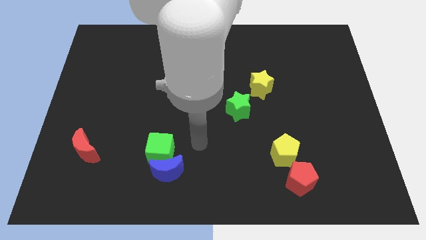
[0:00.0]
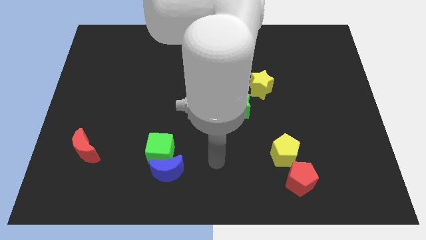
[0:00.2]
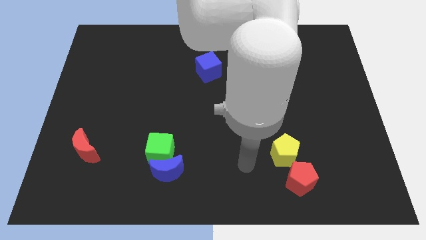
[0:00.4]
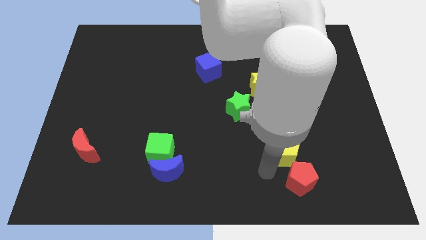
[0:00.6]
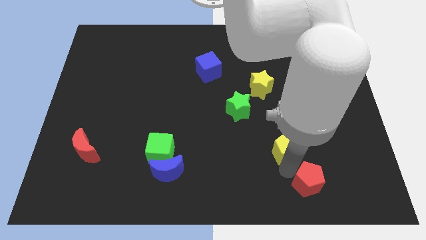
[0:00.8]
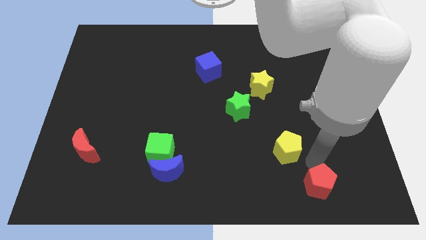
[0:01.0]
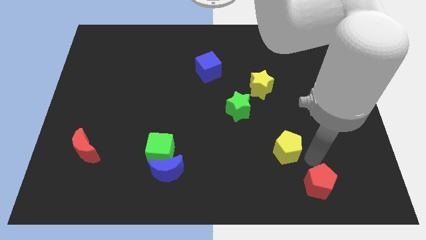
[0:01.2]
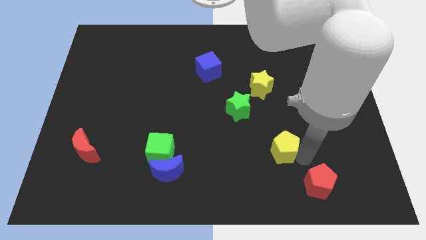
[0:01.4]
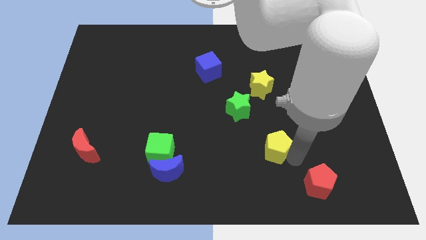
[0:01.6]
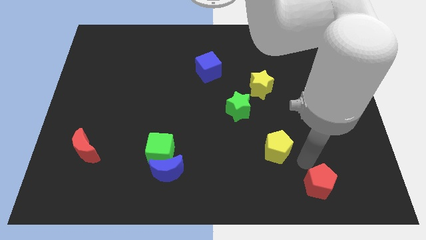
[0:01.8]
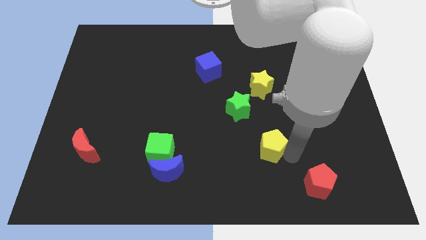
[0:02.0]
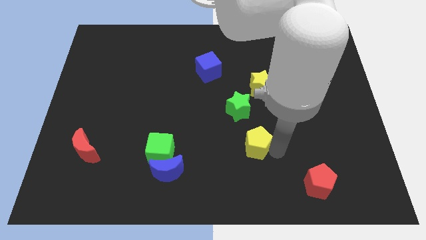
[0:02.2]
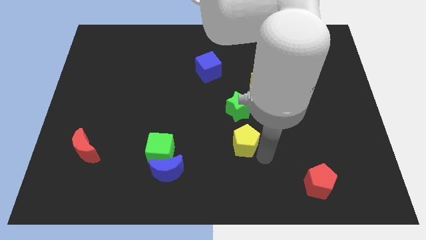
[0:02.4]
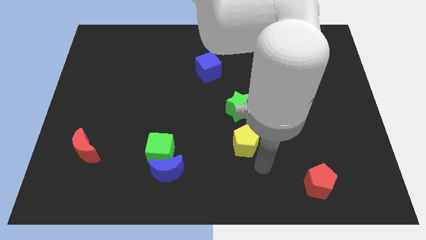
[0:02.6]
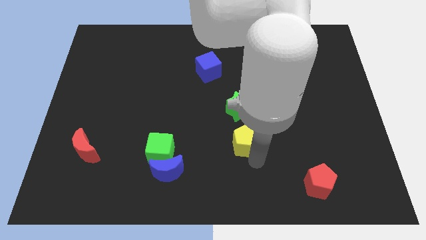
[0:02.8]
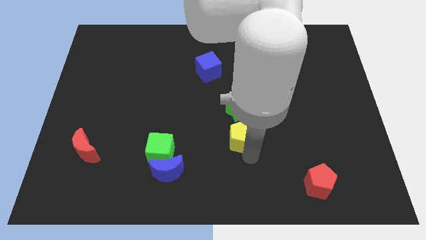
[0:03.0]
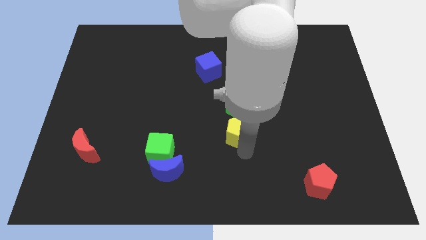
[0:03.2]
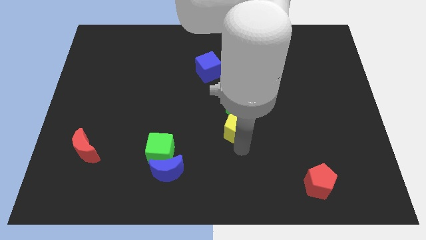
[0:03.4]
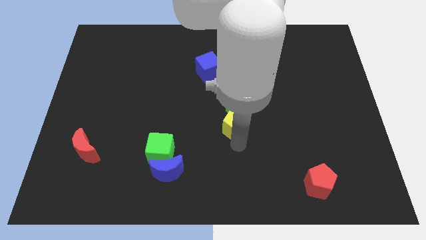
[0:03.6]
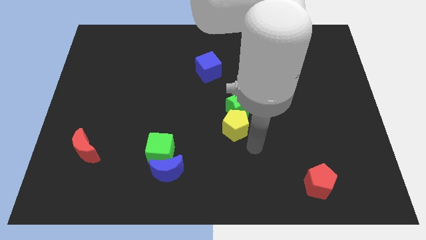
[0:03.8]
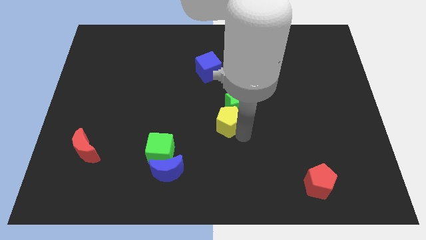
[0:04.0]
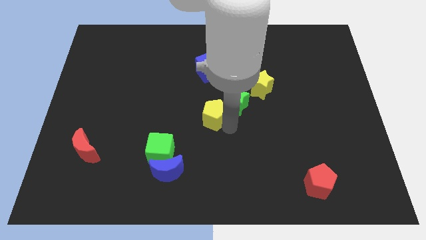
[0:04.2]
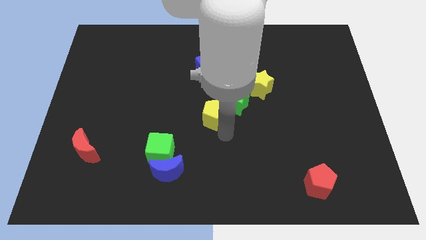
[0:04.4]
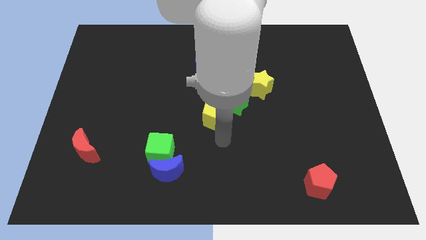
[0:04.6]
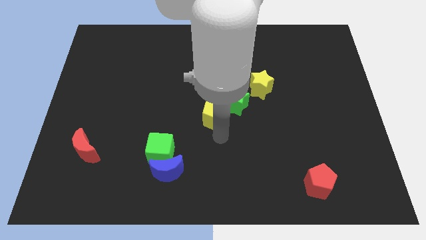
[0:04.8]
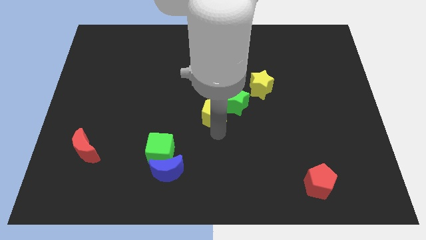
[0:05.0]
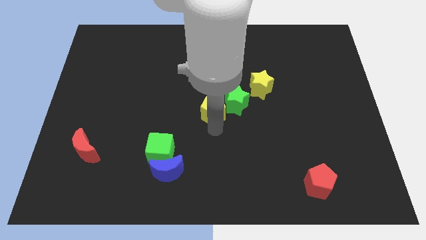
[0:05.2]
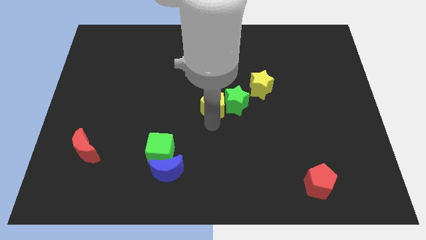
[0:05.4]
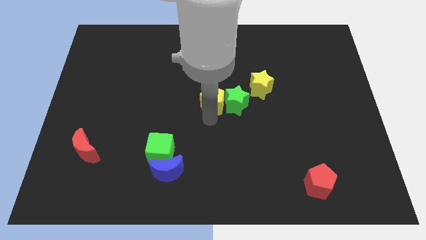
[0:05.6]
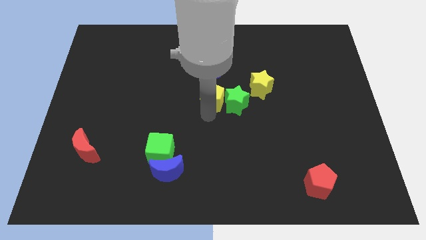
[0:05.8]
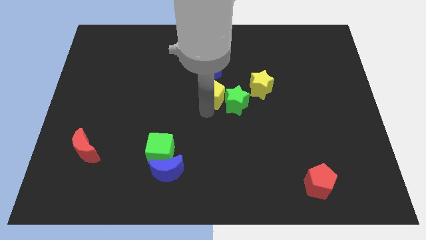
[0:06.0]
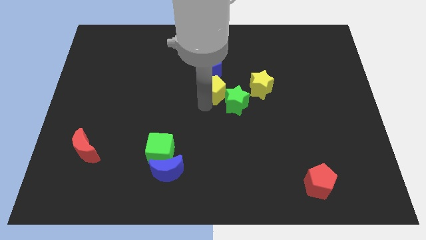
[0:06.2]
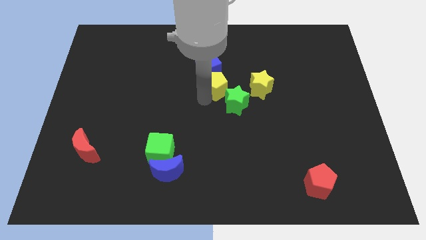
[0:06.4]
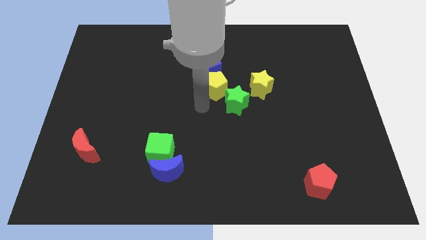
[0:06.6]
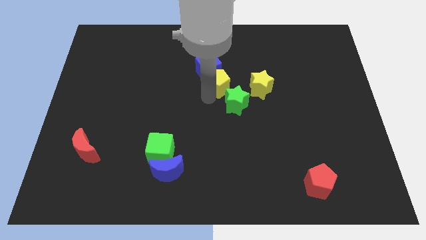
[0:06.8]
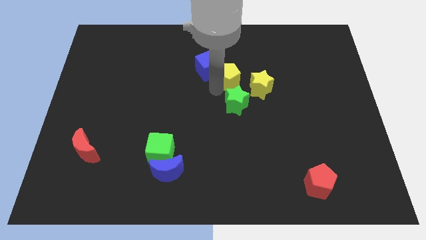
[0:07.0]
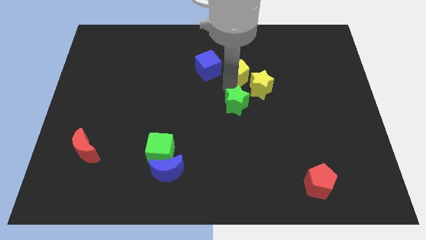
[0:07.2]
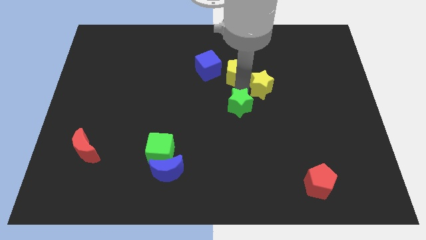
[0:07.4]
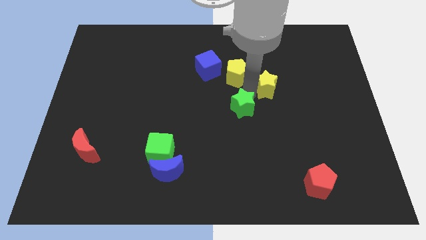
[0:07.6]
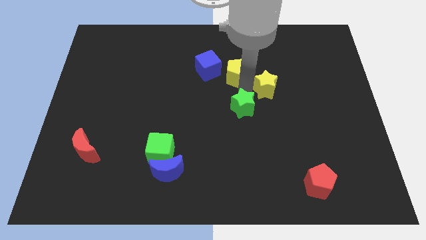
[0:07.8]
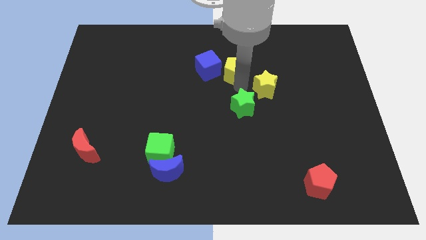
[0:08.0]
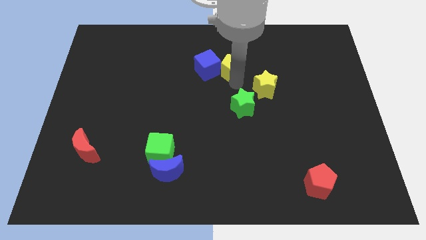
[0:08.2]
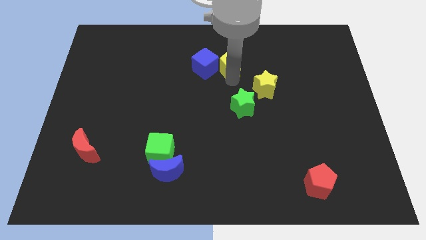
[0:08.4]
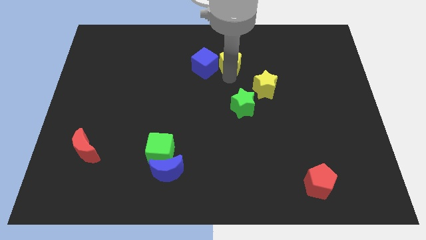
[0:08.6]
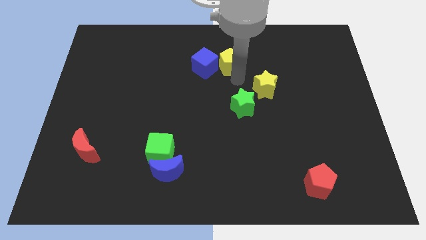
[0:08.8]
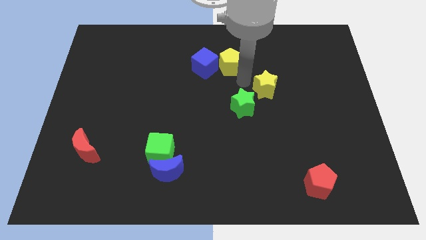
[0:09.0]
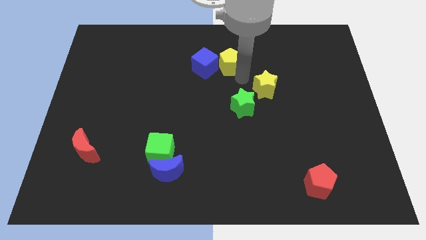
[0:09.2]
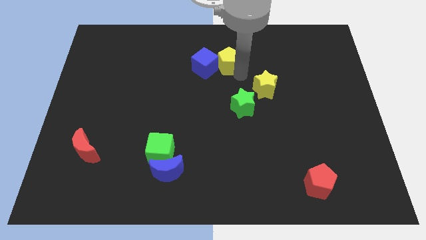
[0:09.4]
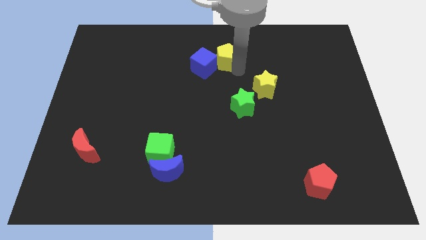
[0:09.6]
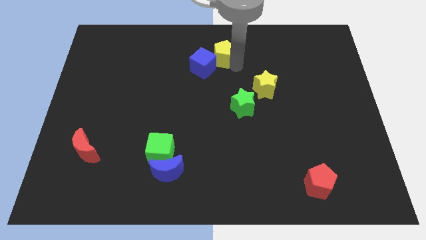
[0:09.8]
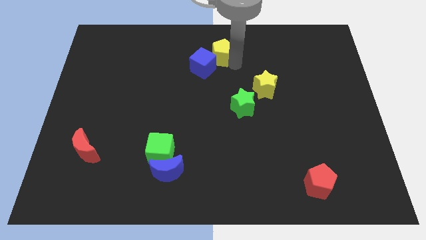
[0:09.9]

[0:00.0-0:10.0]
slide the yellow pentagon to the top side

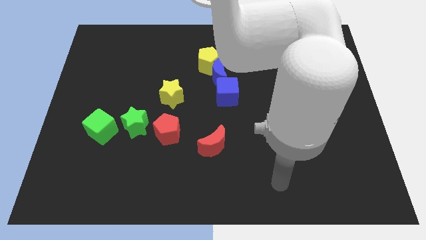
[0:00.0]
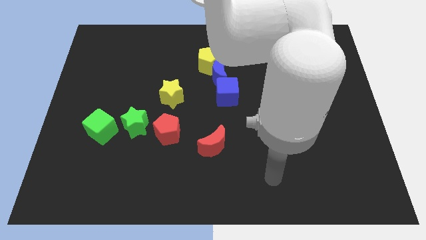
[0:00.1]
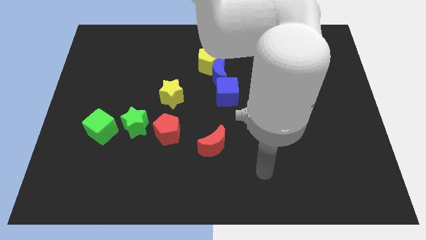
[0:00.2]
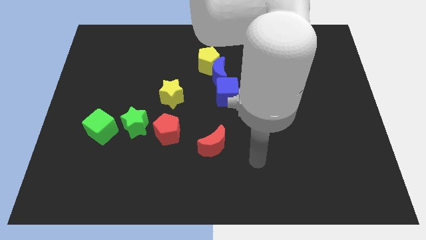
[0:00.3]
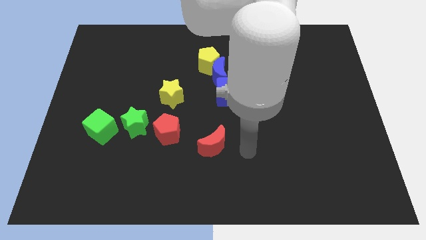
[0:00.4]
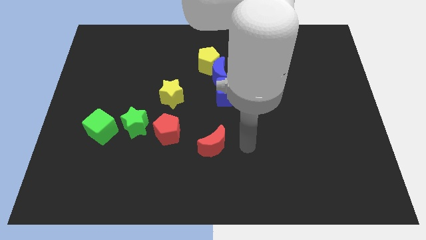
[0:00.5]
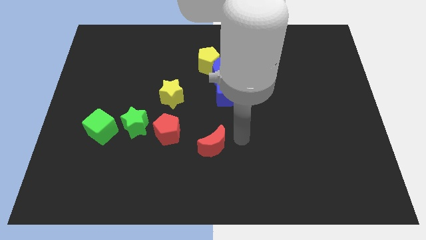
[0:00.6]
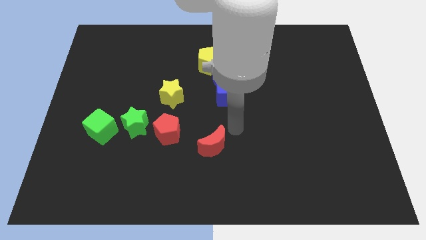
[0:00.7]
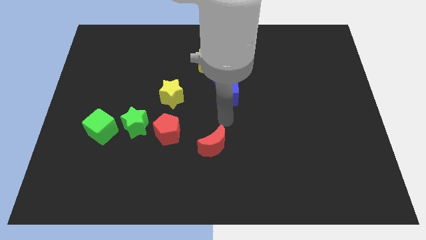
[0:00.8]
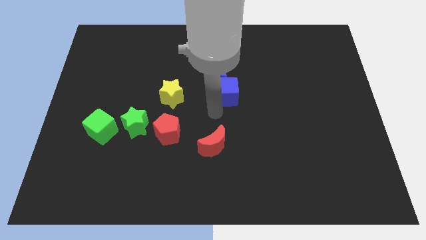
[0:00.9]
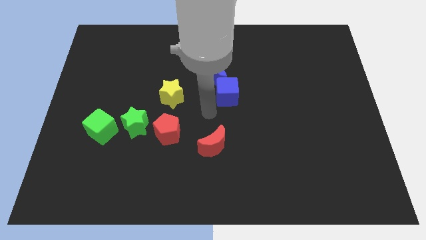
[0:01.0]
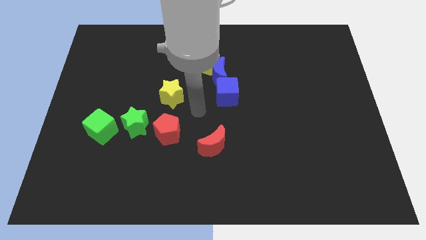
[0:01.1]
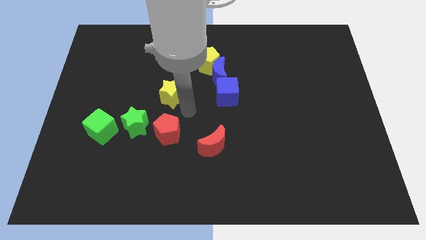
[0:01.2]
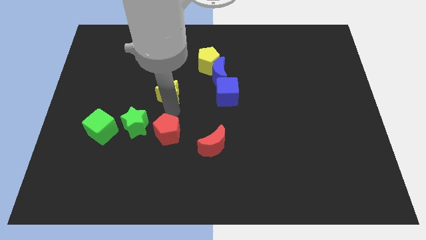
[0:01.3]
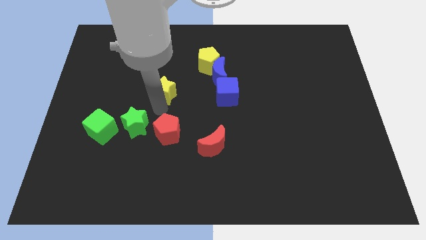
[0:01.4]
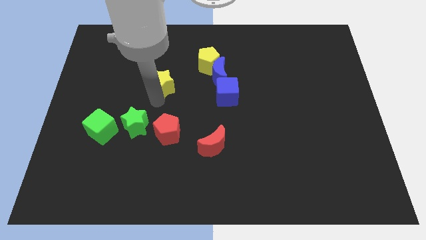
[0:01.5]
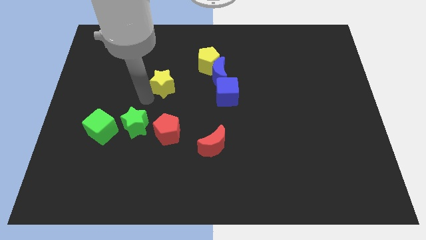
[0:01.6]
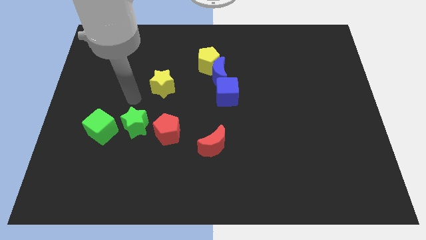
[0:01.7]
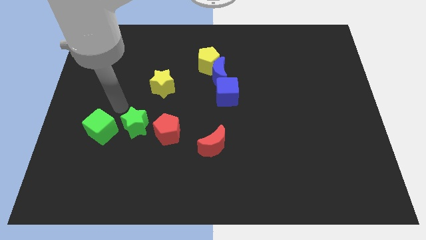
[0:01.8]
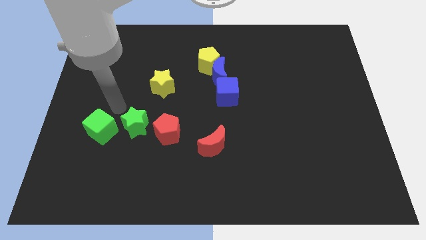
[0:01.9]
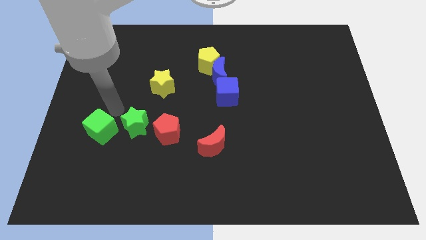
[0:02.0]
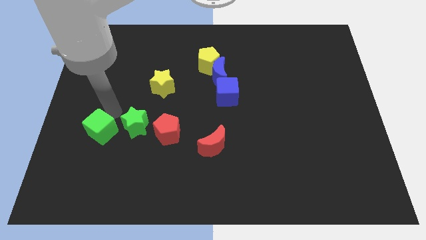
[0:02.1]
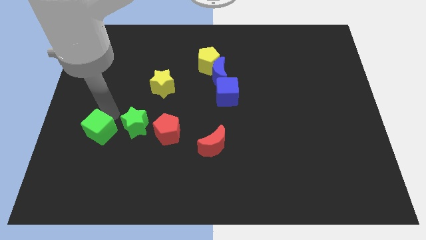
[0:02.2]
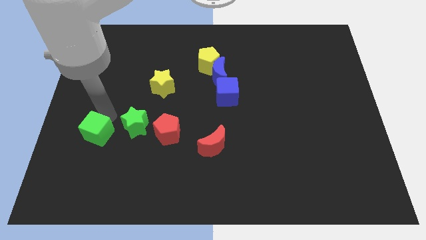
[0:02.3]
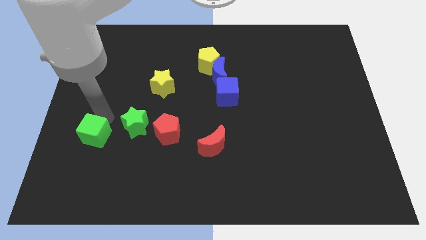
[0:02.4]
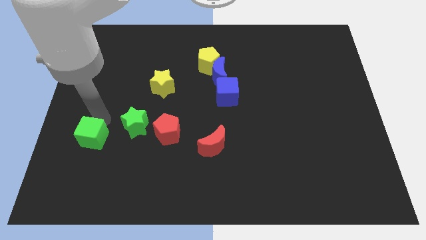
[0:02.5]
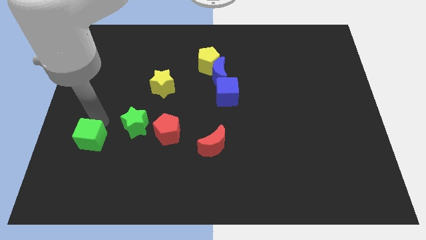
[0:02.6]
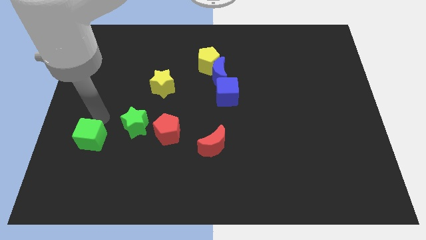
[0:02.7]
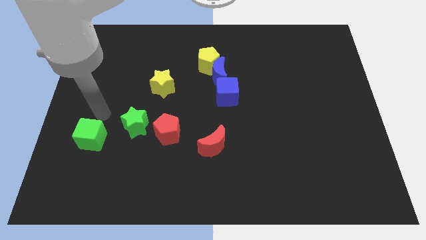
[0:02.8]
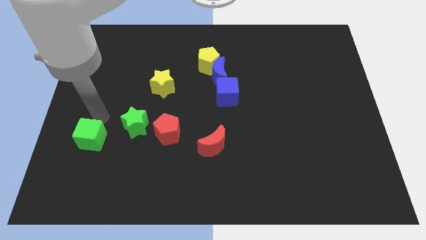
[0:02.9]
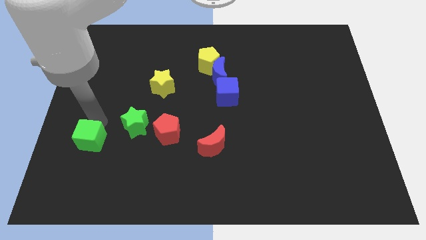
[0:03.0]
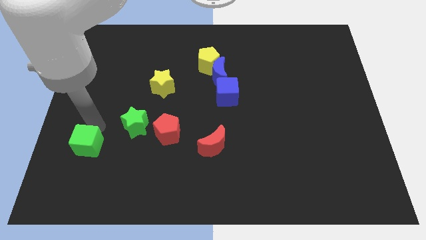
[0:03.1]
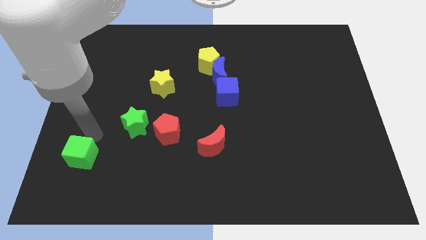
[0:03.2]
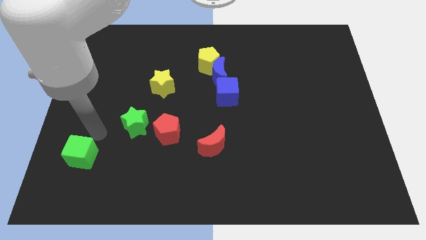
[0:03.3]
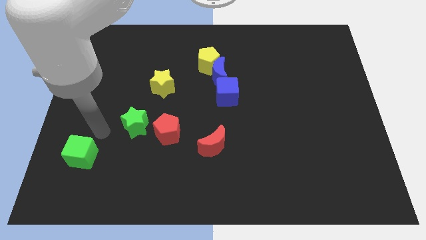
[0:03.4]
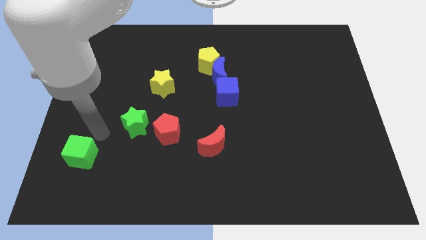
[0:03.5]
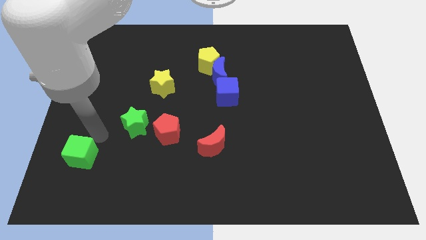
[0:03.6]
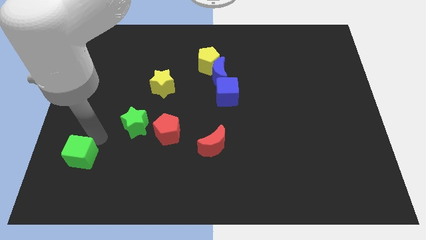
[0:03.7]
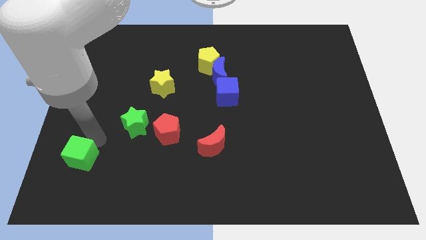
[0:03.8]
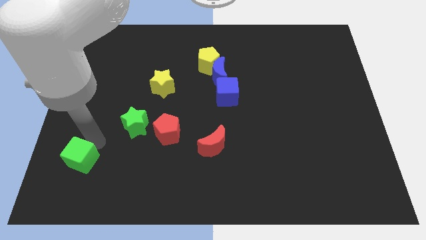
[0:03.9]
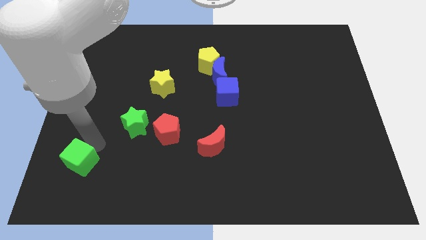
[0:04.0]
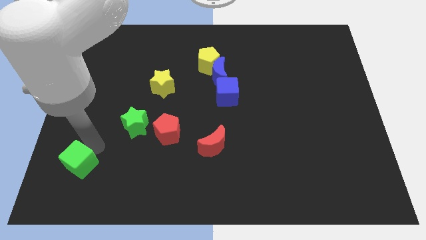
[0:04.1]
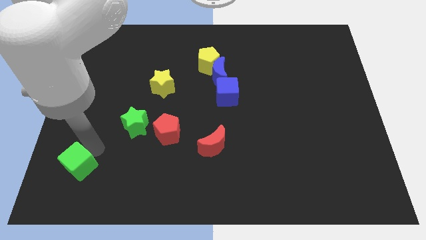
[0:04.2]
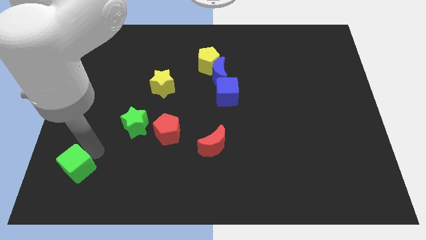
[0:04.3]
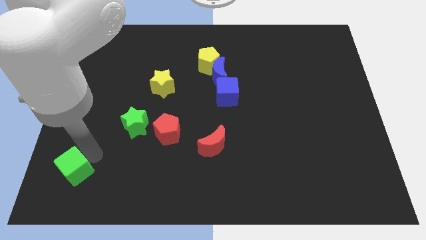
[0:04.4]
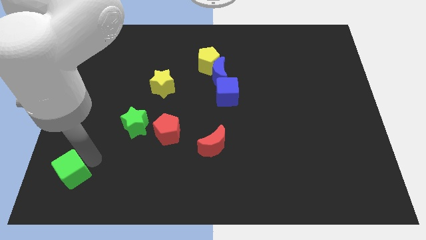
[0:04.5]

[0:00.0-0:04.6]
move the green cube to the bottom left corner
